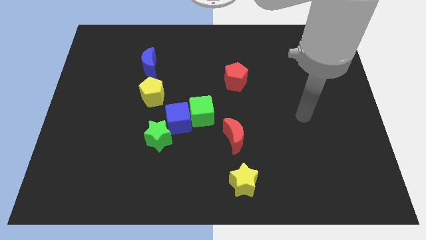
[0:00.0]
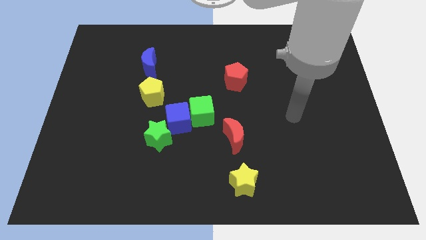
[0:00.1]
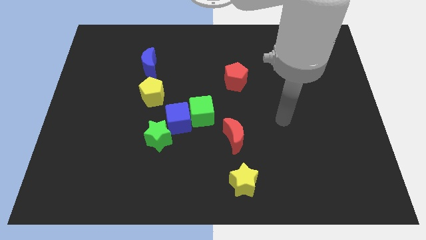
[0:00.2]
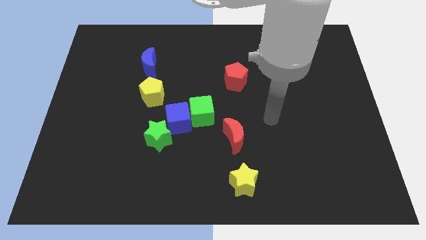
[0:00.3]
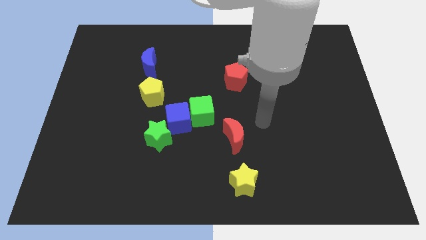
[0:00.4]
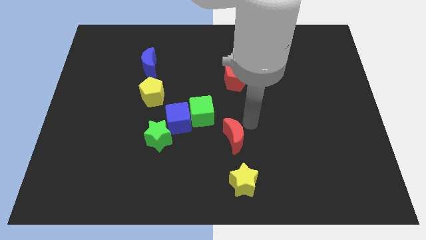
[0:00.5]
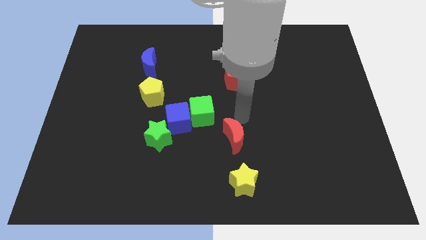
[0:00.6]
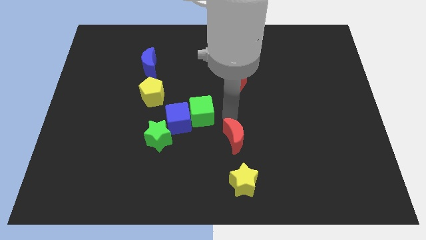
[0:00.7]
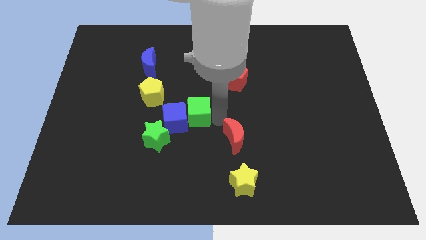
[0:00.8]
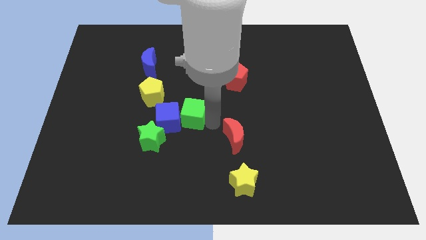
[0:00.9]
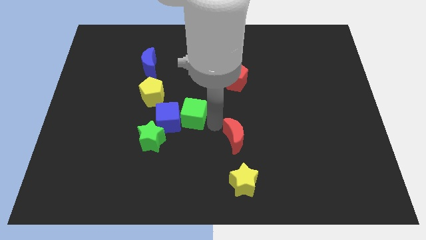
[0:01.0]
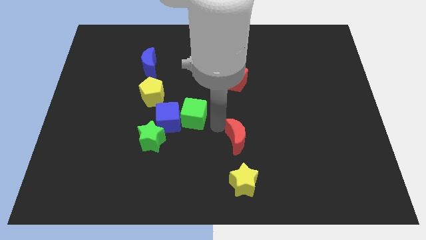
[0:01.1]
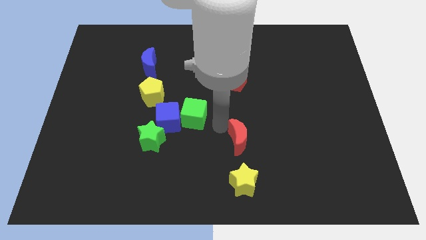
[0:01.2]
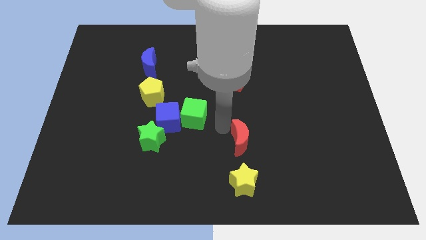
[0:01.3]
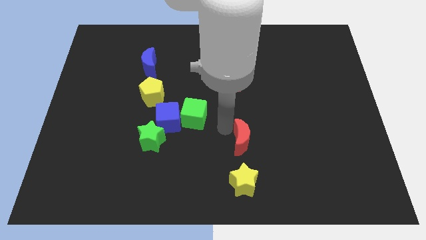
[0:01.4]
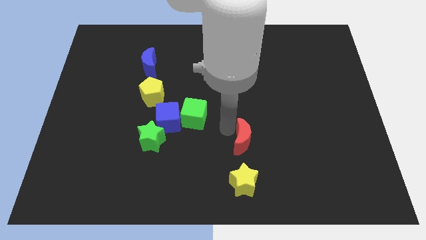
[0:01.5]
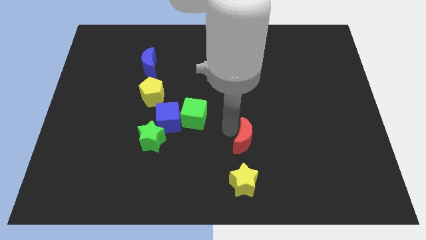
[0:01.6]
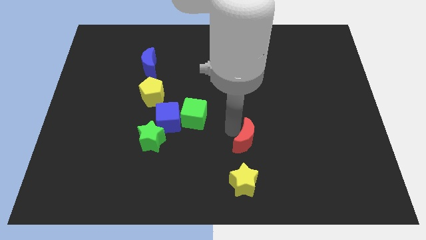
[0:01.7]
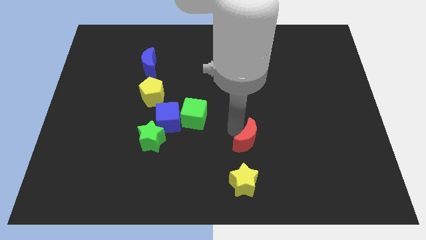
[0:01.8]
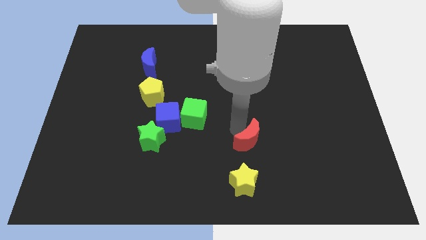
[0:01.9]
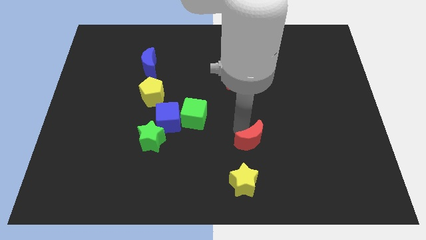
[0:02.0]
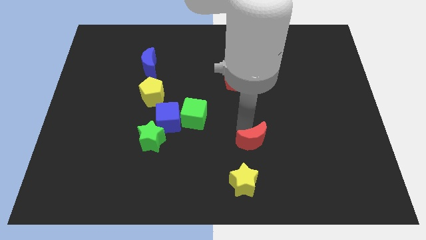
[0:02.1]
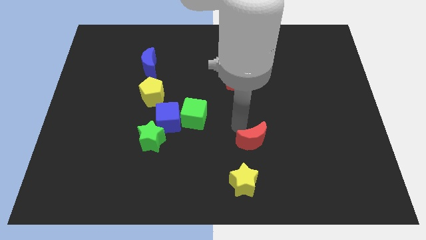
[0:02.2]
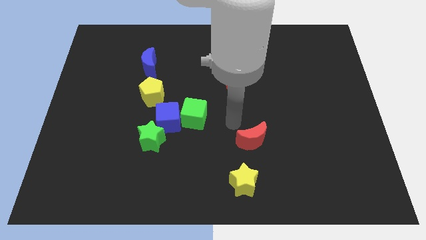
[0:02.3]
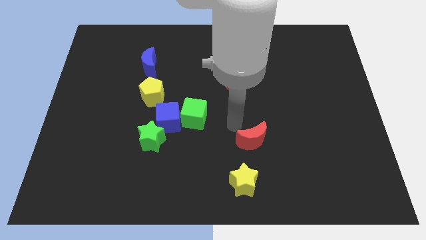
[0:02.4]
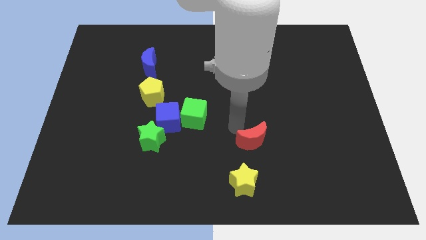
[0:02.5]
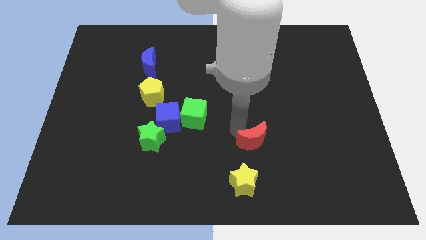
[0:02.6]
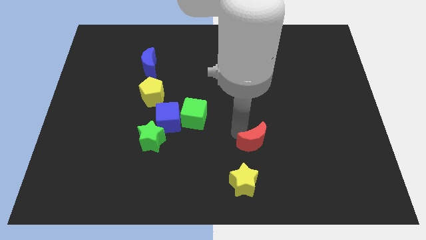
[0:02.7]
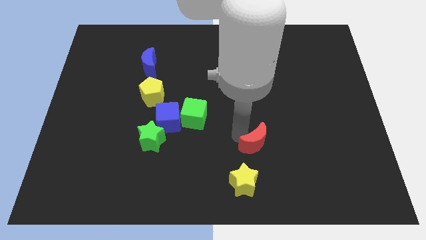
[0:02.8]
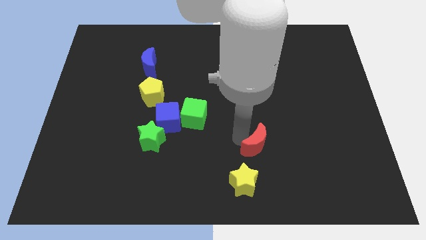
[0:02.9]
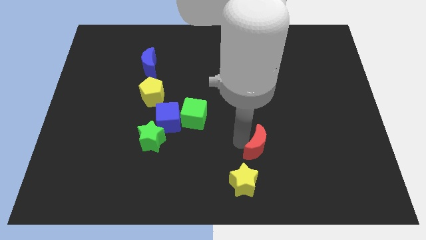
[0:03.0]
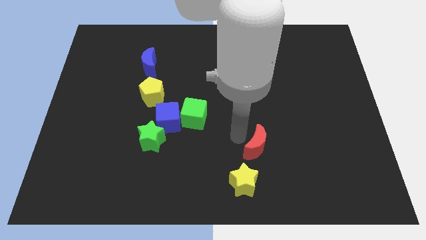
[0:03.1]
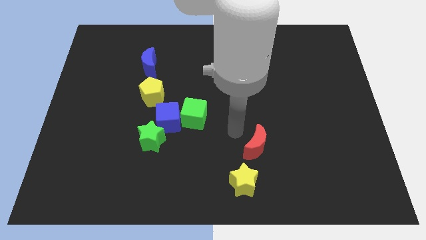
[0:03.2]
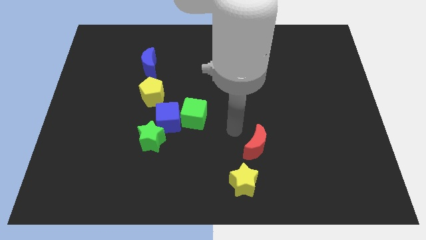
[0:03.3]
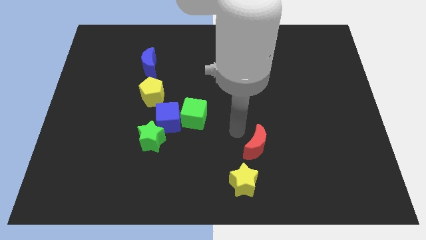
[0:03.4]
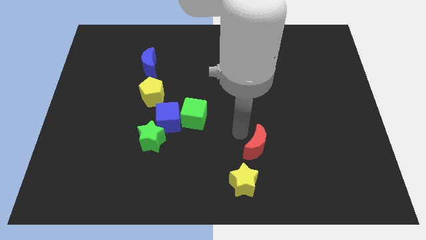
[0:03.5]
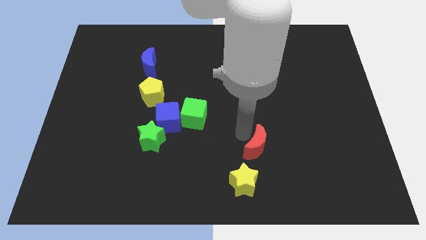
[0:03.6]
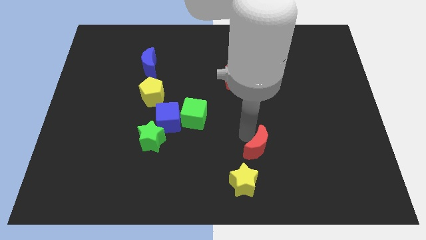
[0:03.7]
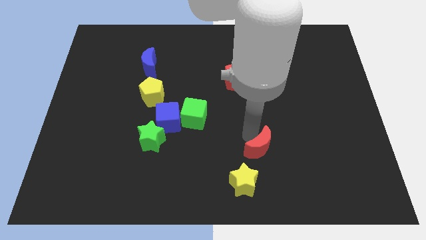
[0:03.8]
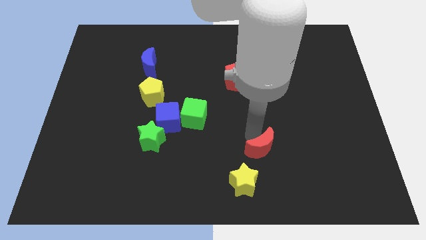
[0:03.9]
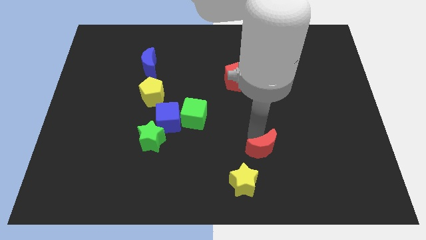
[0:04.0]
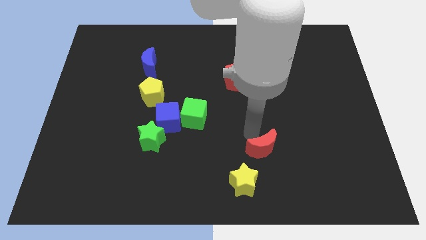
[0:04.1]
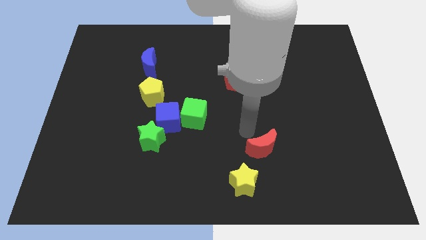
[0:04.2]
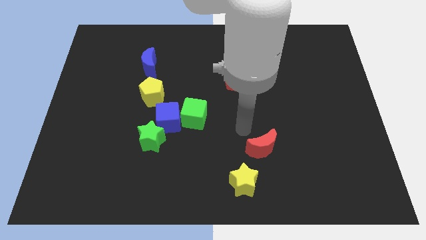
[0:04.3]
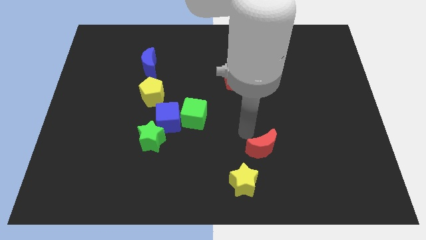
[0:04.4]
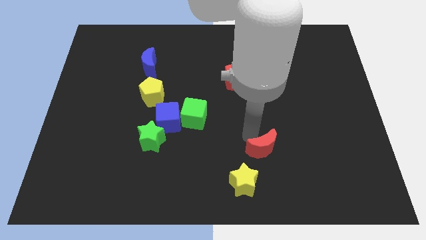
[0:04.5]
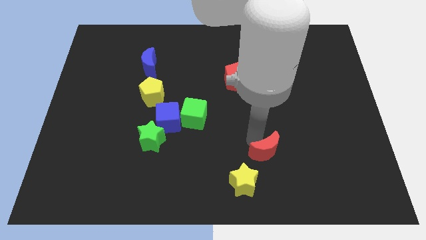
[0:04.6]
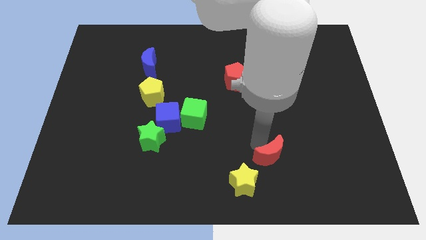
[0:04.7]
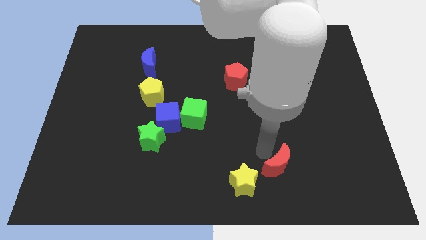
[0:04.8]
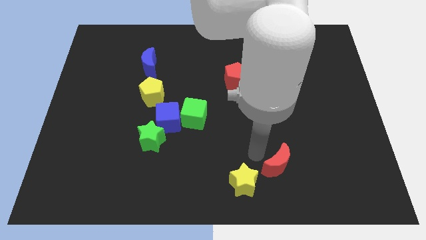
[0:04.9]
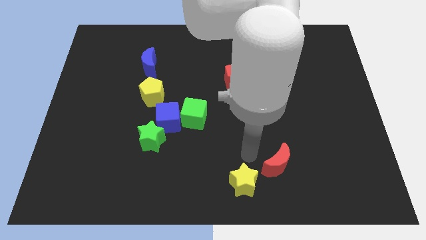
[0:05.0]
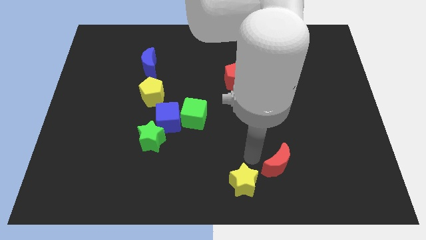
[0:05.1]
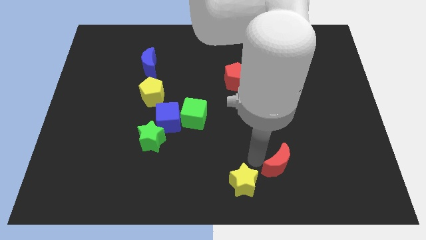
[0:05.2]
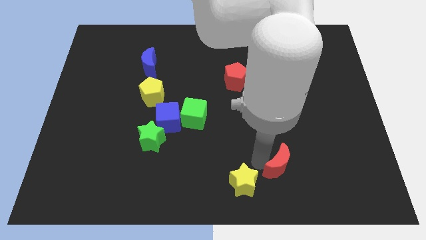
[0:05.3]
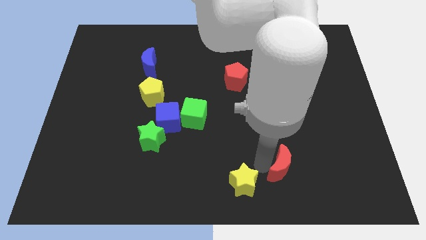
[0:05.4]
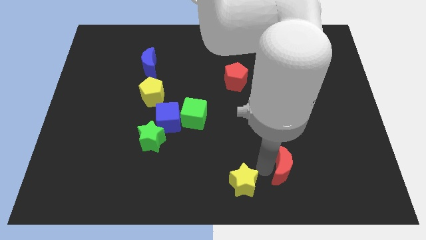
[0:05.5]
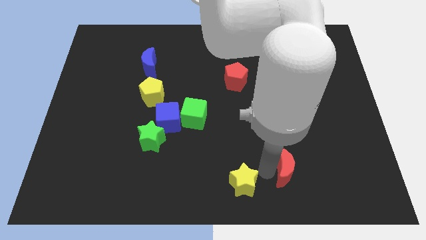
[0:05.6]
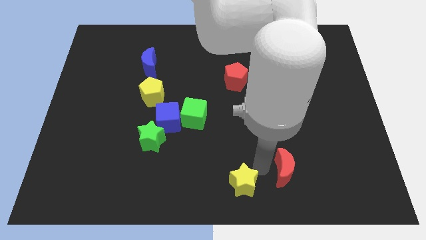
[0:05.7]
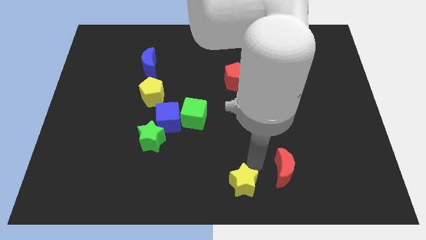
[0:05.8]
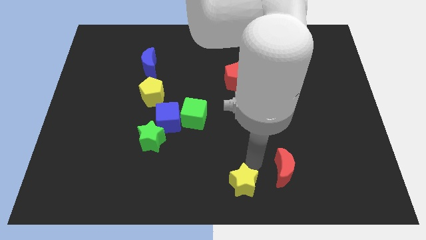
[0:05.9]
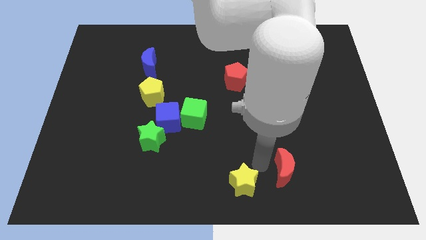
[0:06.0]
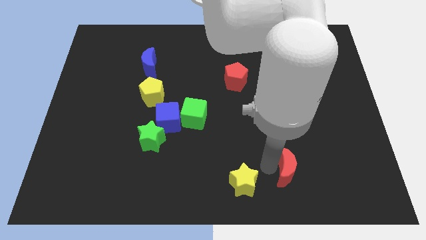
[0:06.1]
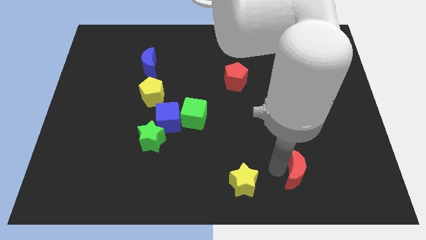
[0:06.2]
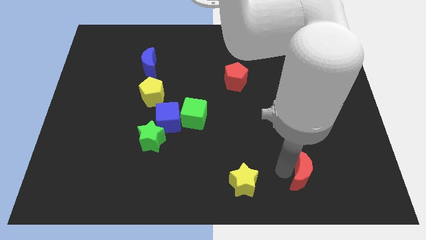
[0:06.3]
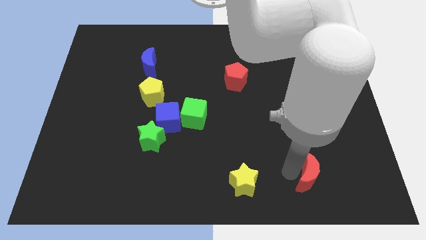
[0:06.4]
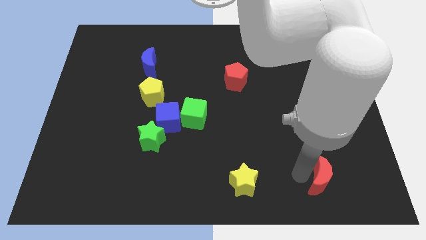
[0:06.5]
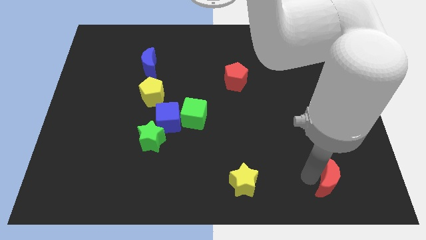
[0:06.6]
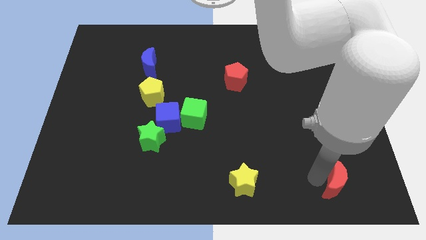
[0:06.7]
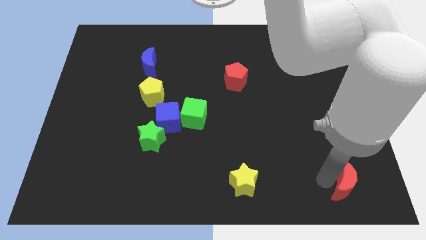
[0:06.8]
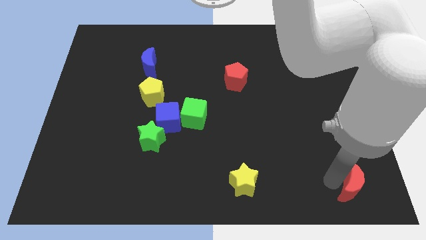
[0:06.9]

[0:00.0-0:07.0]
slide the red moon to the lower right corner
